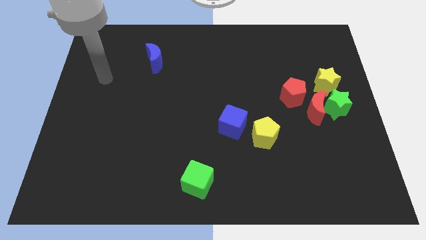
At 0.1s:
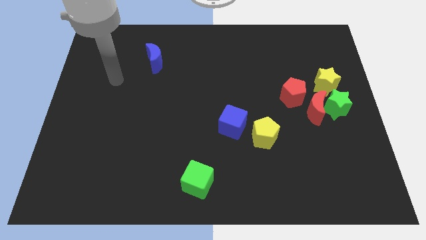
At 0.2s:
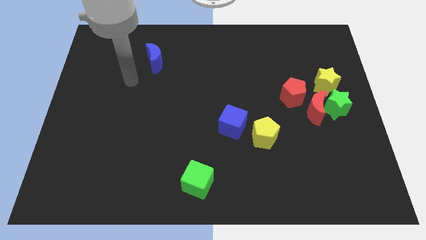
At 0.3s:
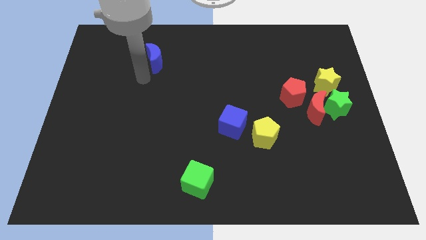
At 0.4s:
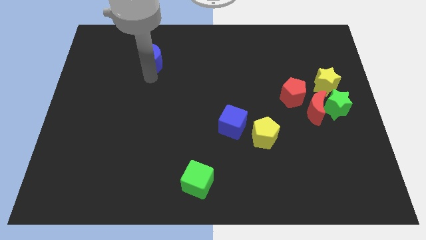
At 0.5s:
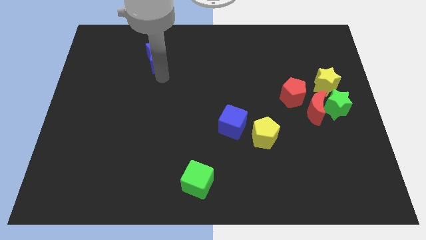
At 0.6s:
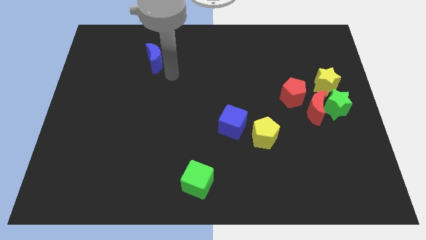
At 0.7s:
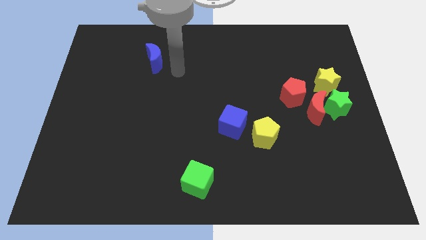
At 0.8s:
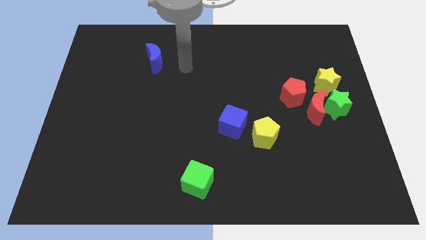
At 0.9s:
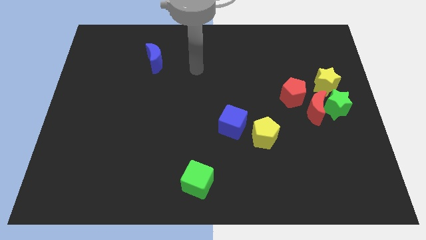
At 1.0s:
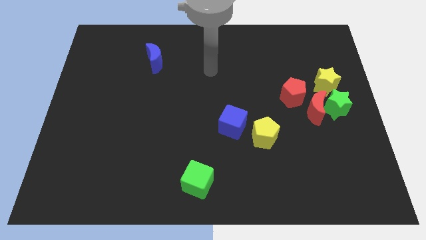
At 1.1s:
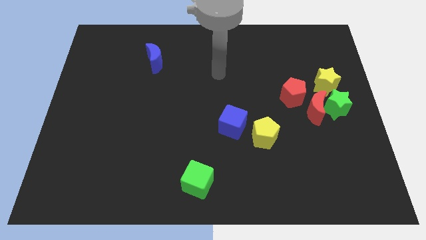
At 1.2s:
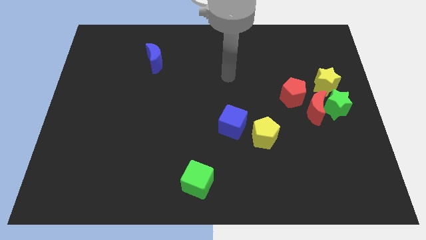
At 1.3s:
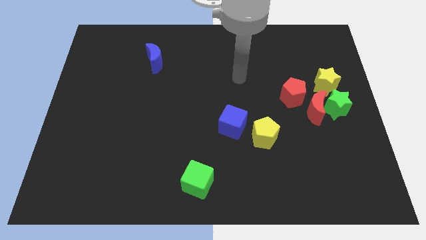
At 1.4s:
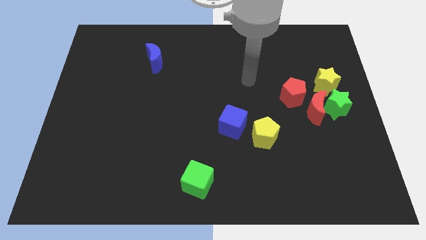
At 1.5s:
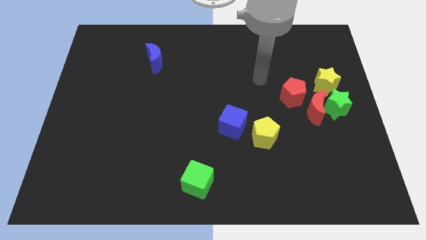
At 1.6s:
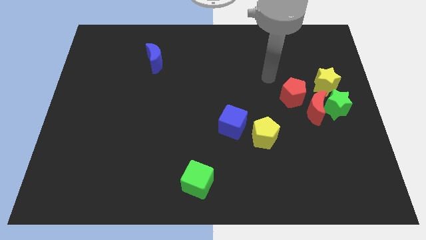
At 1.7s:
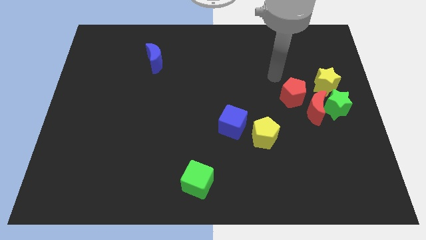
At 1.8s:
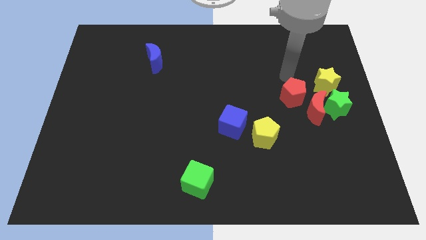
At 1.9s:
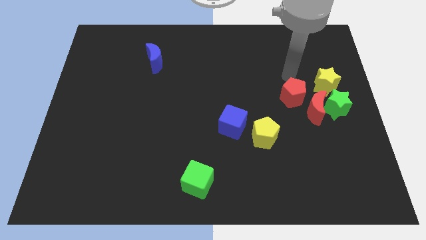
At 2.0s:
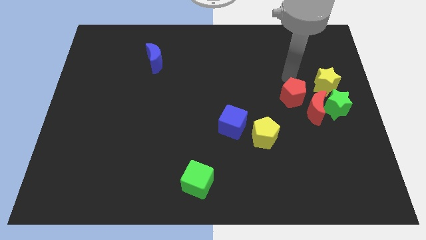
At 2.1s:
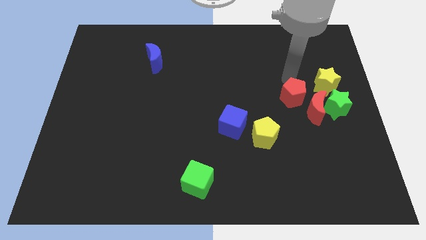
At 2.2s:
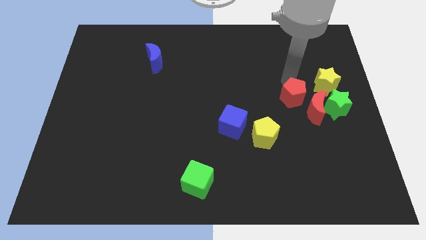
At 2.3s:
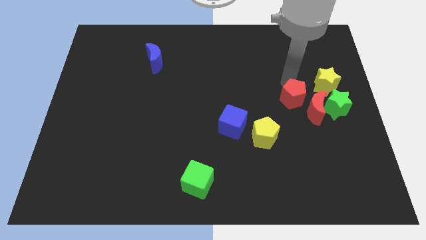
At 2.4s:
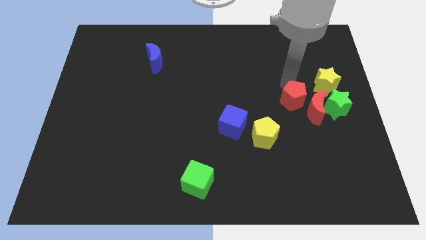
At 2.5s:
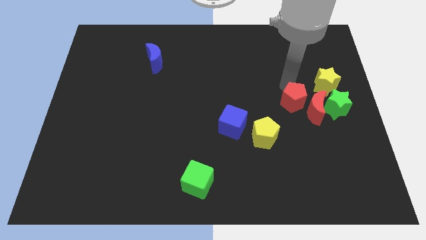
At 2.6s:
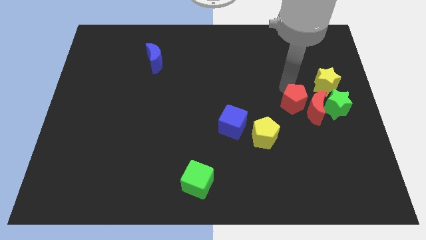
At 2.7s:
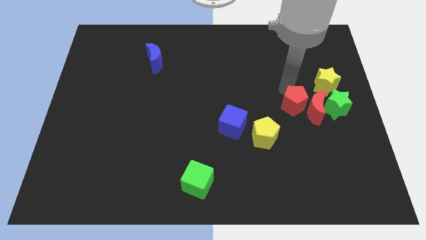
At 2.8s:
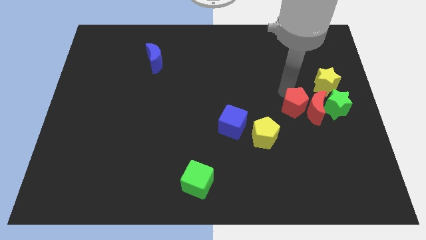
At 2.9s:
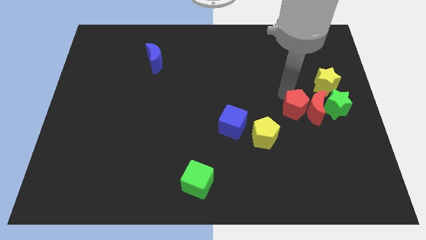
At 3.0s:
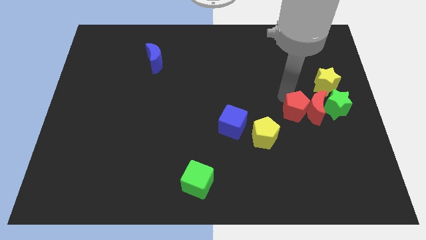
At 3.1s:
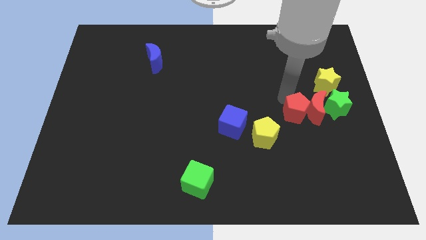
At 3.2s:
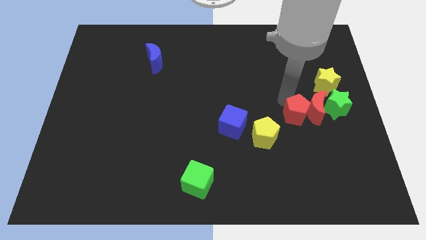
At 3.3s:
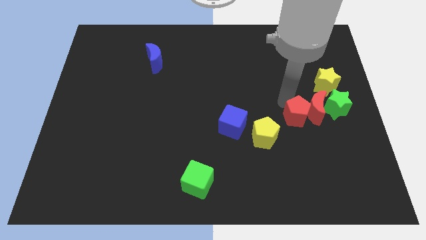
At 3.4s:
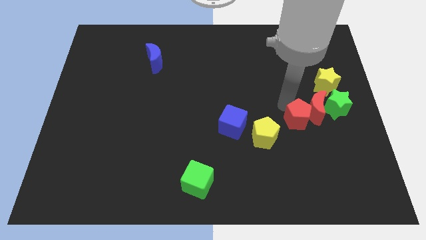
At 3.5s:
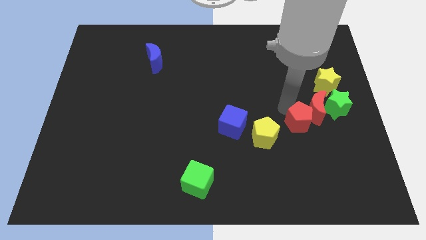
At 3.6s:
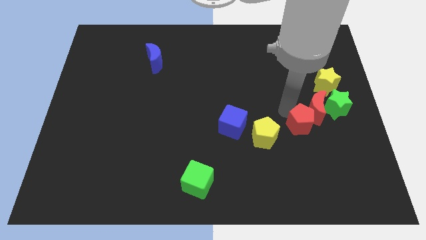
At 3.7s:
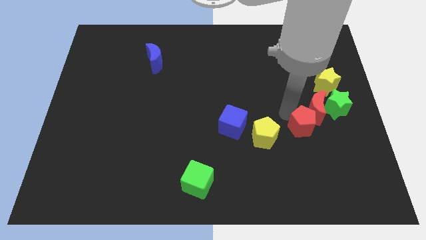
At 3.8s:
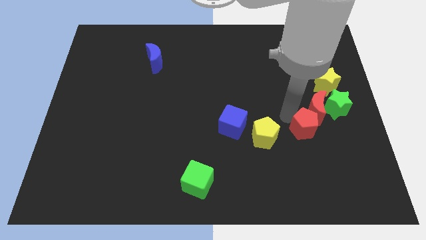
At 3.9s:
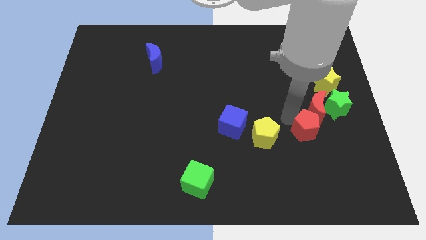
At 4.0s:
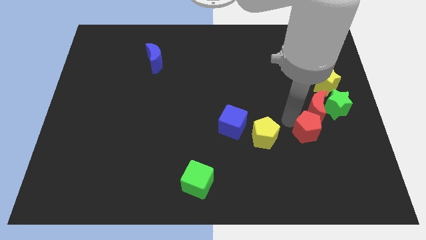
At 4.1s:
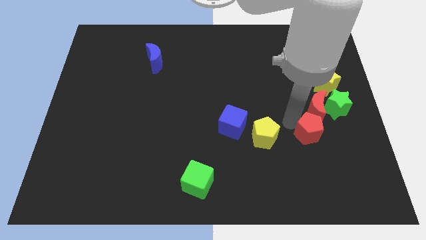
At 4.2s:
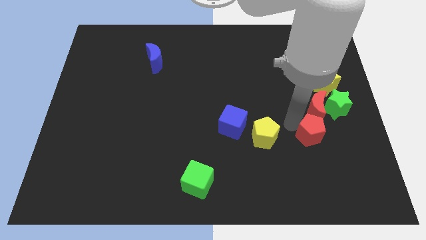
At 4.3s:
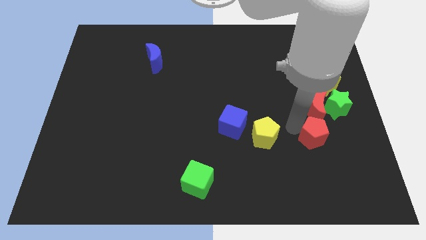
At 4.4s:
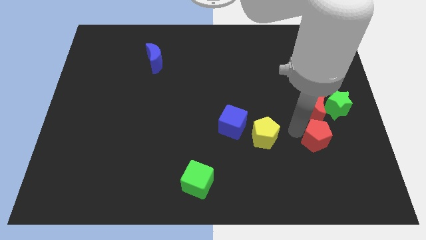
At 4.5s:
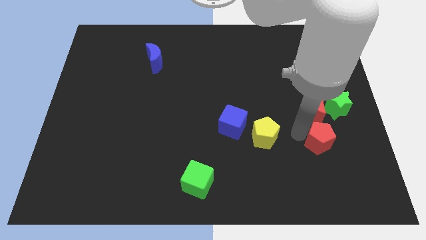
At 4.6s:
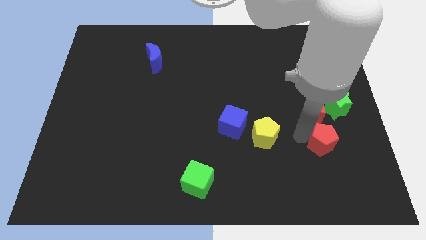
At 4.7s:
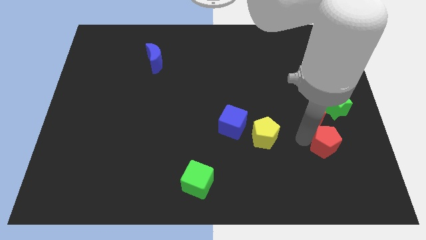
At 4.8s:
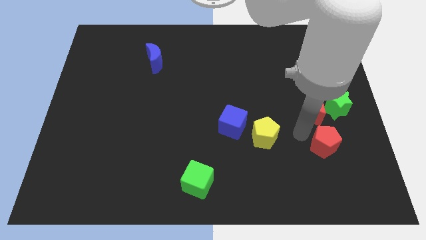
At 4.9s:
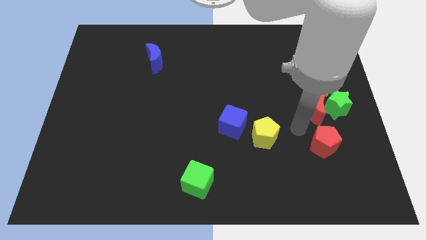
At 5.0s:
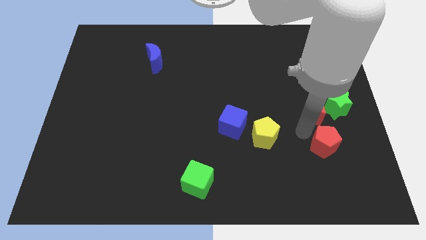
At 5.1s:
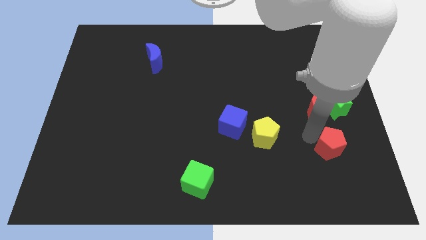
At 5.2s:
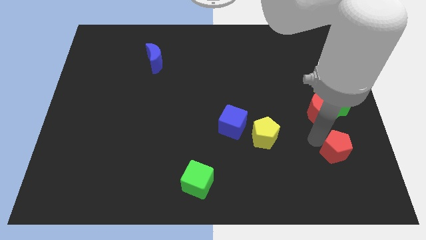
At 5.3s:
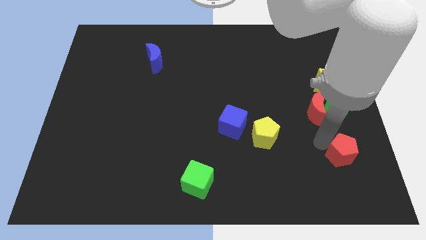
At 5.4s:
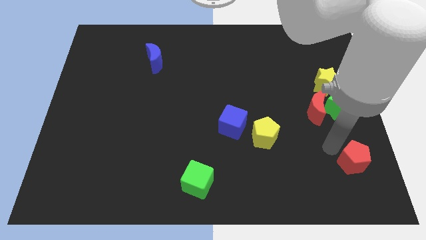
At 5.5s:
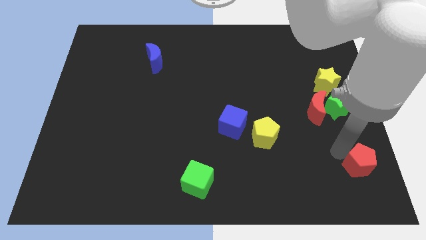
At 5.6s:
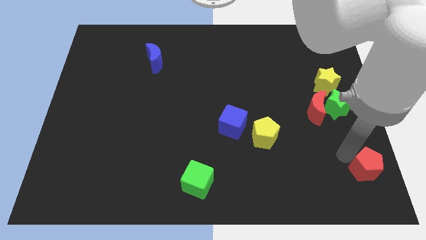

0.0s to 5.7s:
push the red pentagon to the bottom right corner

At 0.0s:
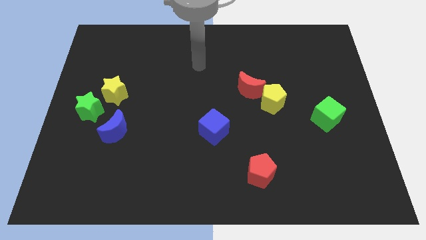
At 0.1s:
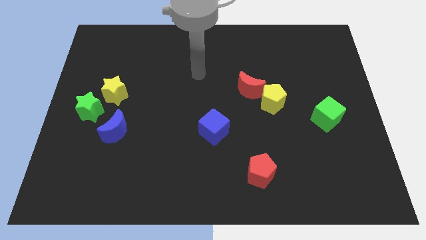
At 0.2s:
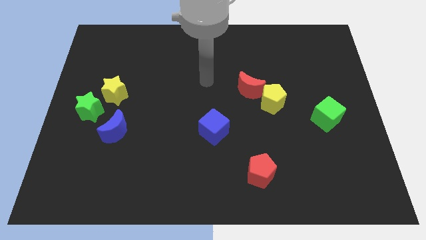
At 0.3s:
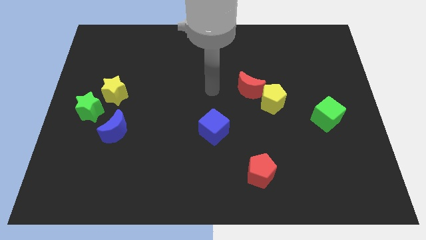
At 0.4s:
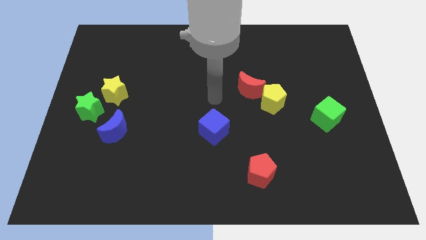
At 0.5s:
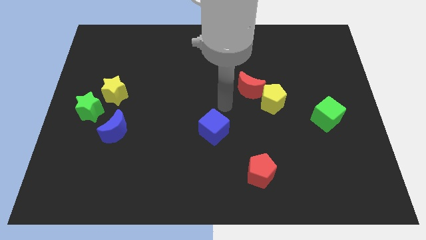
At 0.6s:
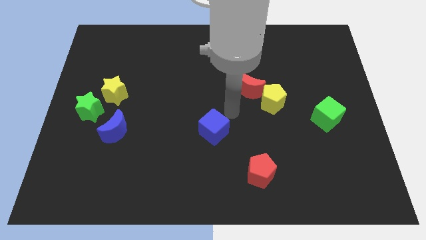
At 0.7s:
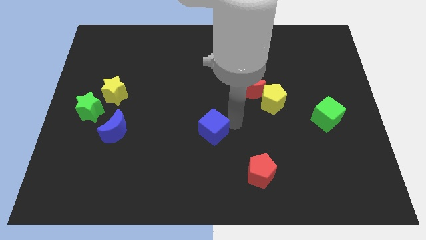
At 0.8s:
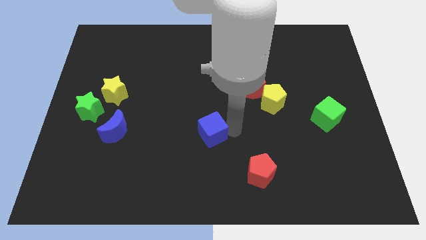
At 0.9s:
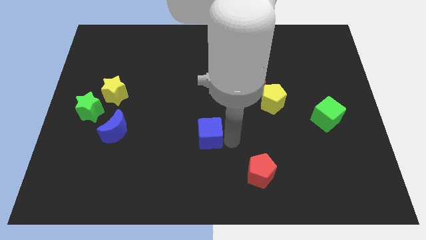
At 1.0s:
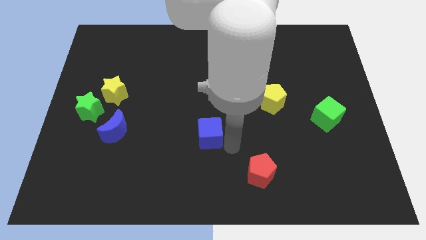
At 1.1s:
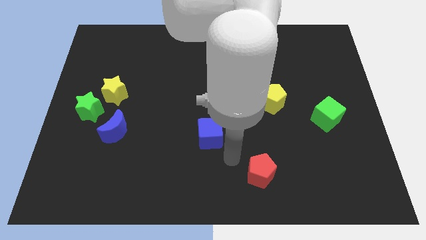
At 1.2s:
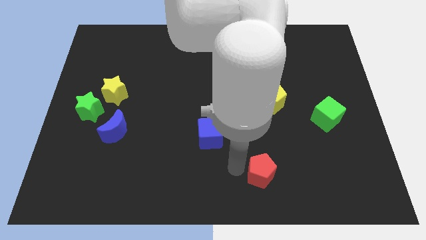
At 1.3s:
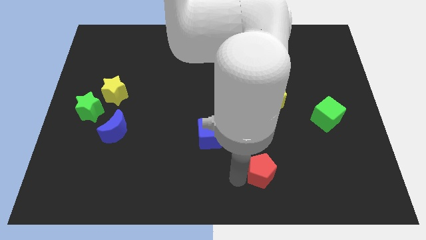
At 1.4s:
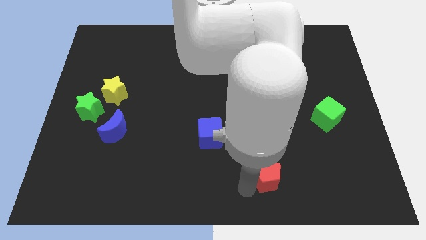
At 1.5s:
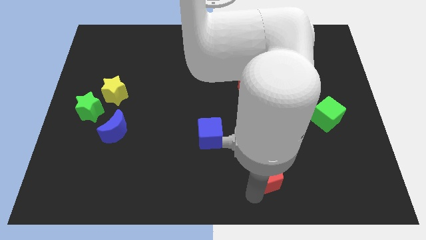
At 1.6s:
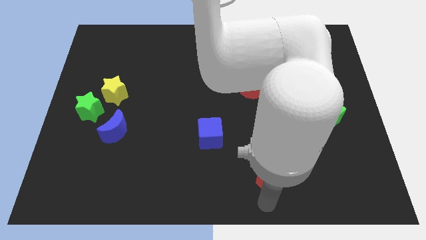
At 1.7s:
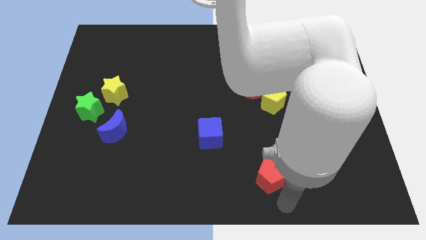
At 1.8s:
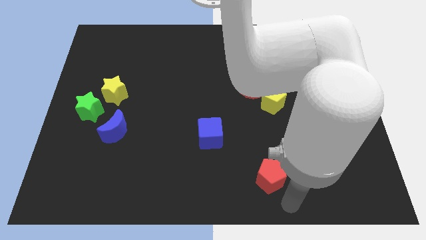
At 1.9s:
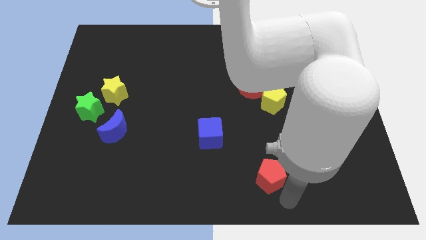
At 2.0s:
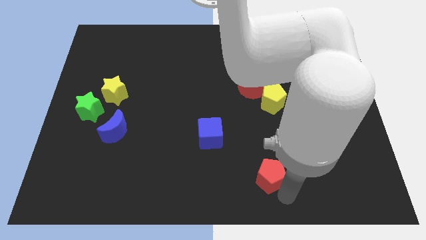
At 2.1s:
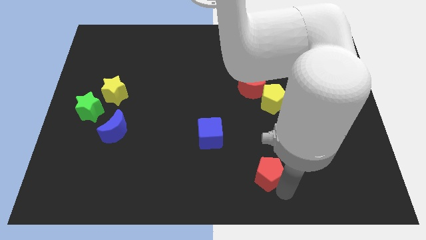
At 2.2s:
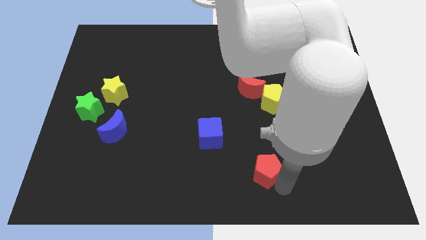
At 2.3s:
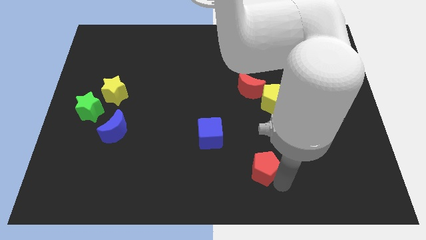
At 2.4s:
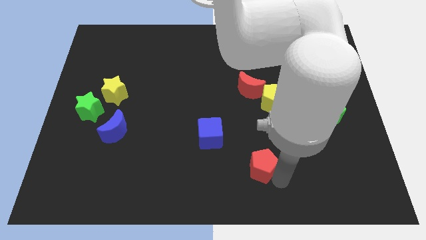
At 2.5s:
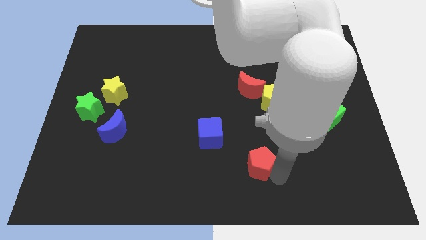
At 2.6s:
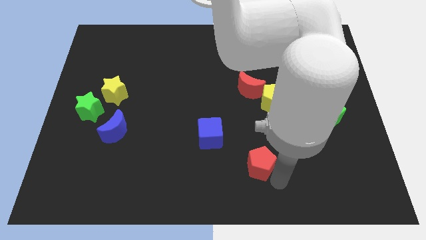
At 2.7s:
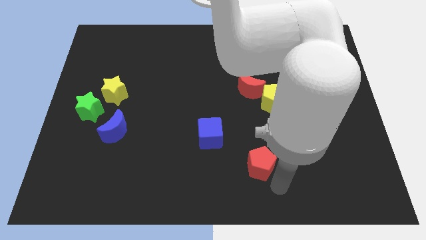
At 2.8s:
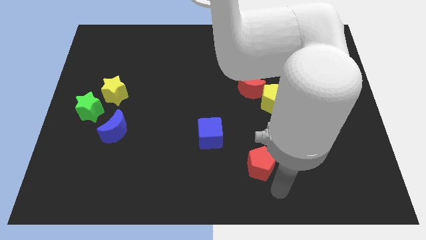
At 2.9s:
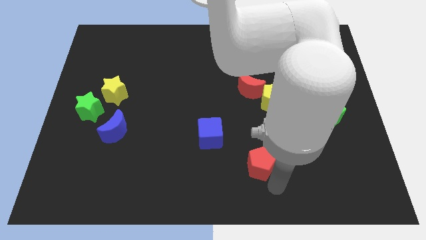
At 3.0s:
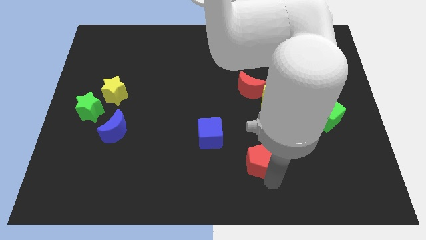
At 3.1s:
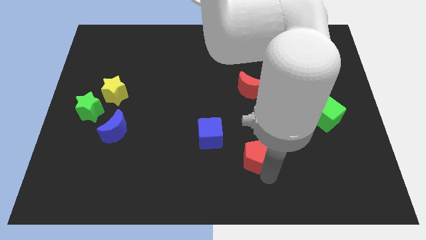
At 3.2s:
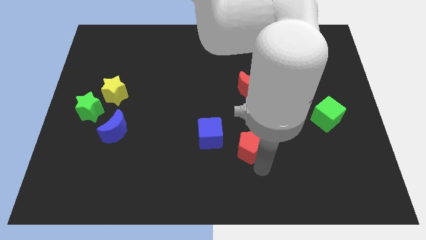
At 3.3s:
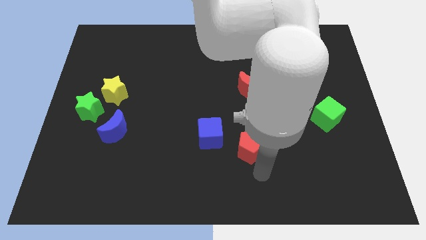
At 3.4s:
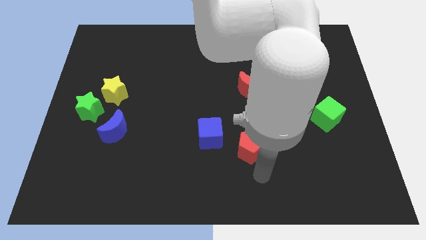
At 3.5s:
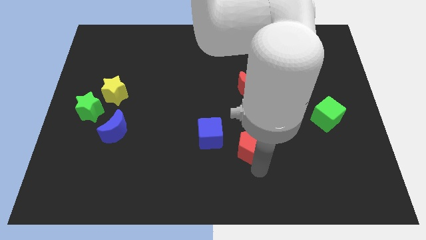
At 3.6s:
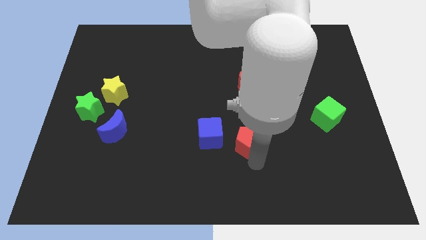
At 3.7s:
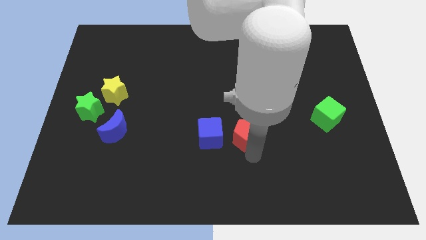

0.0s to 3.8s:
move the red pentagon to the center
